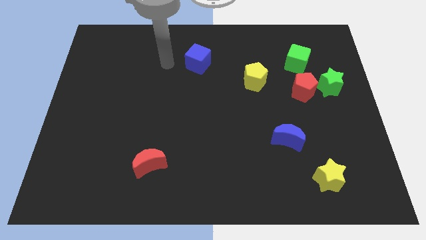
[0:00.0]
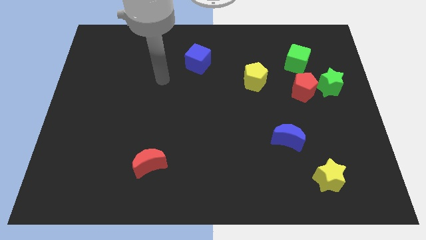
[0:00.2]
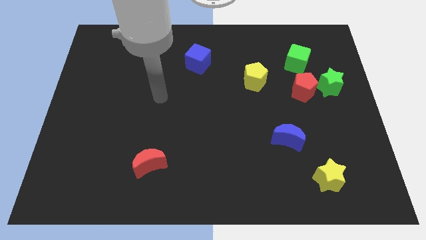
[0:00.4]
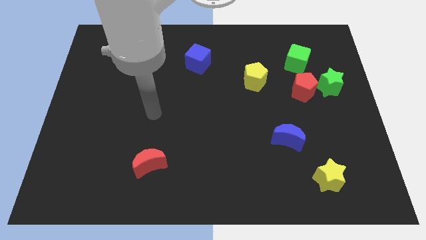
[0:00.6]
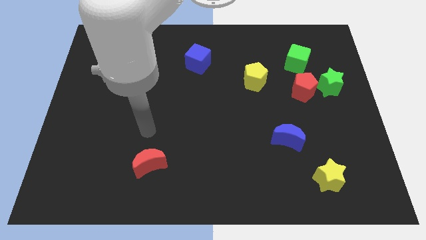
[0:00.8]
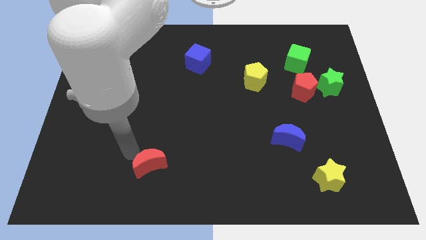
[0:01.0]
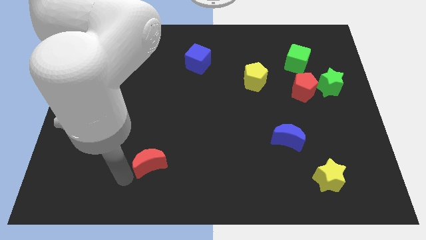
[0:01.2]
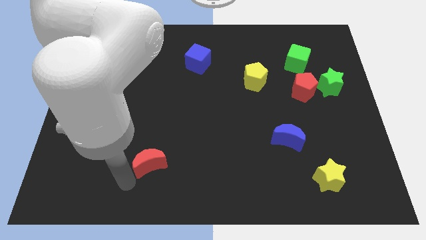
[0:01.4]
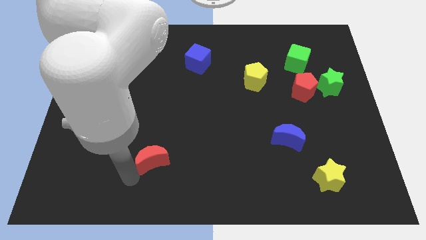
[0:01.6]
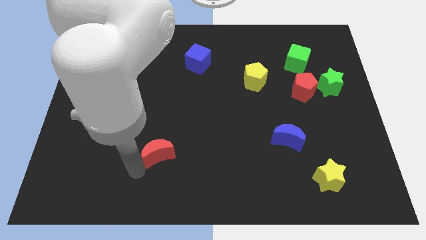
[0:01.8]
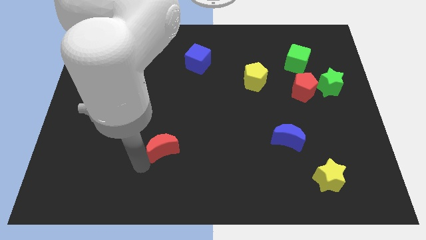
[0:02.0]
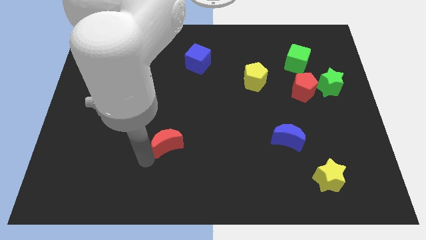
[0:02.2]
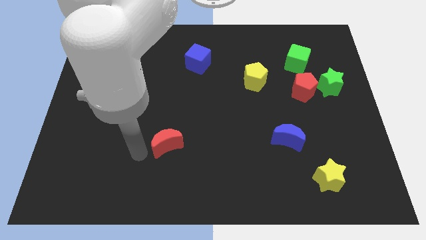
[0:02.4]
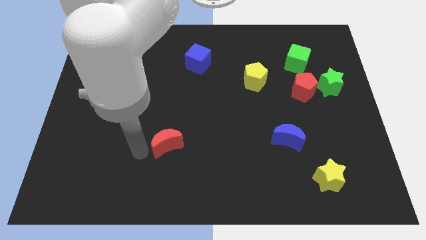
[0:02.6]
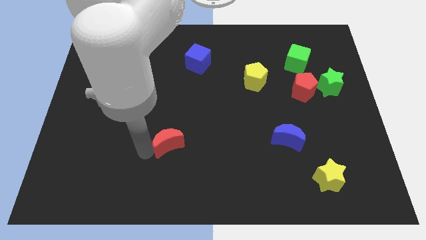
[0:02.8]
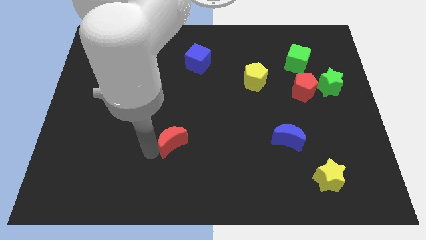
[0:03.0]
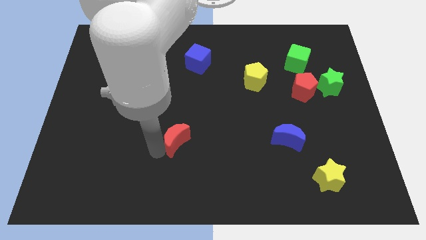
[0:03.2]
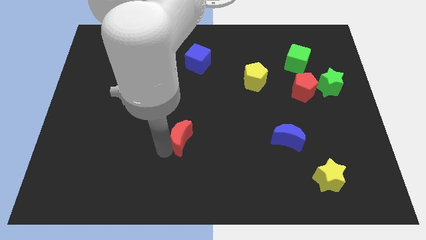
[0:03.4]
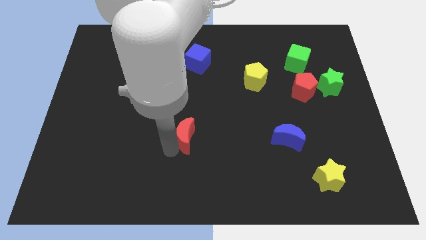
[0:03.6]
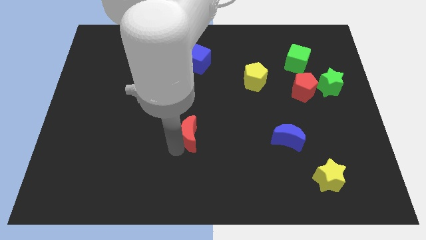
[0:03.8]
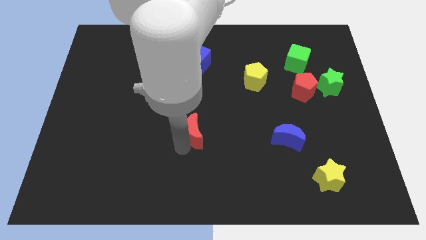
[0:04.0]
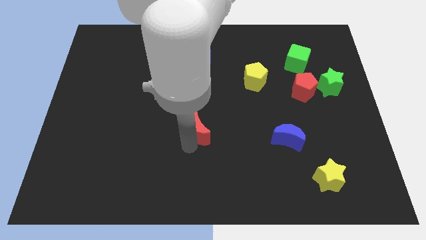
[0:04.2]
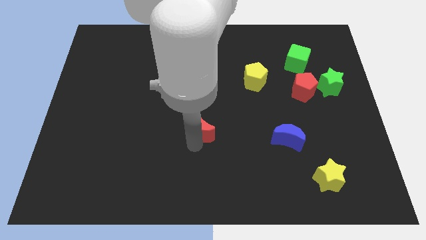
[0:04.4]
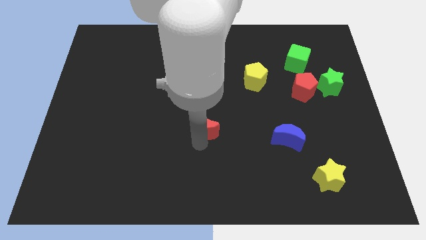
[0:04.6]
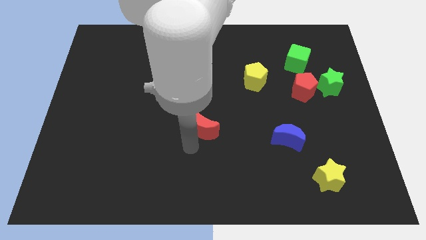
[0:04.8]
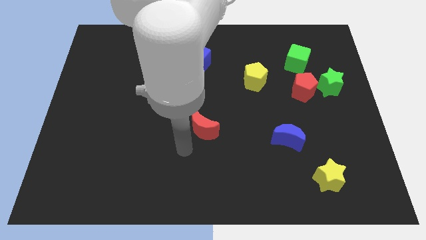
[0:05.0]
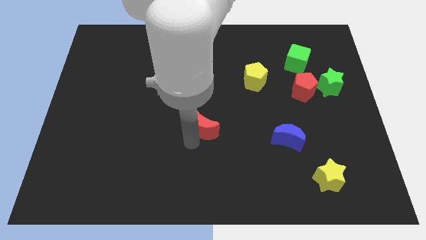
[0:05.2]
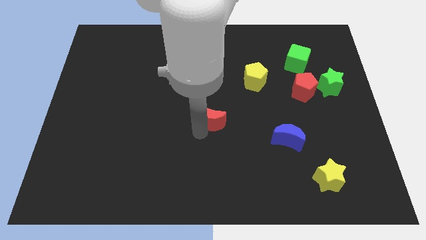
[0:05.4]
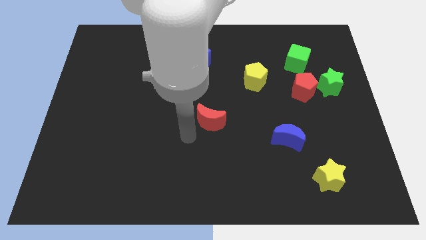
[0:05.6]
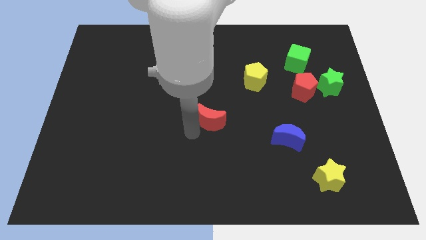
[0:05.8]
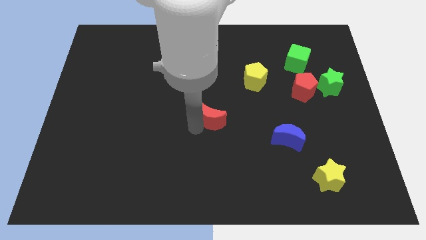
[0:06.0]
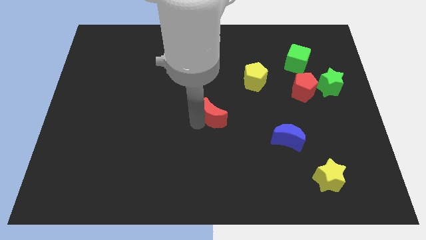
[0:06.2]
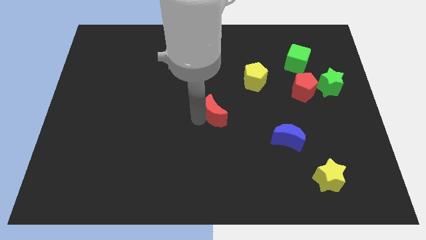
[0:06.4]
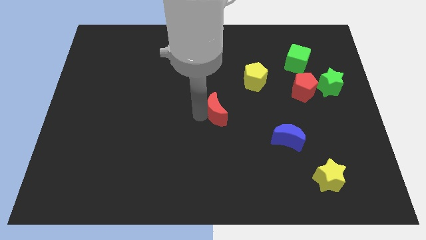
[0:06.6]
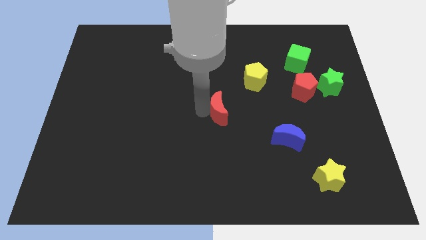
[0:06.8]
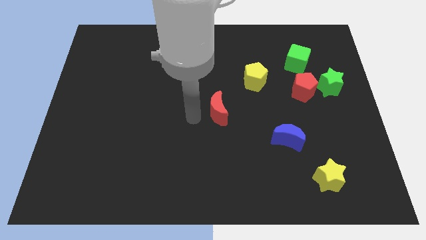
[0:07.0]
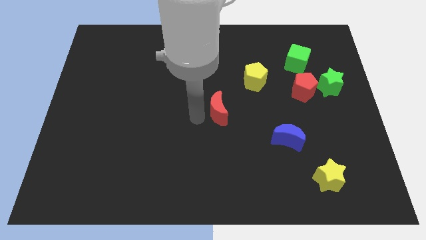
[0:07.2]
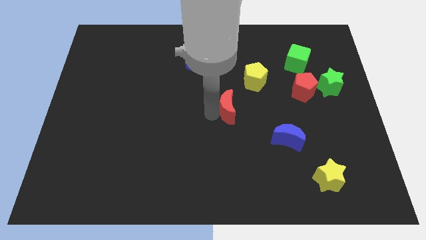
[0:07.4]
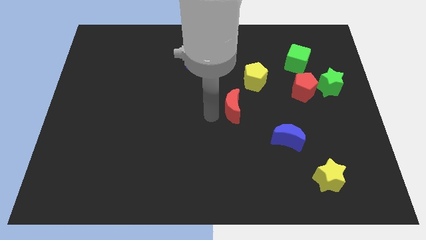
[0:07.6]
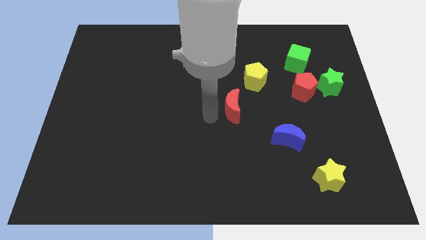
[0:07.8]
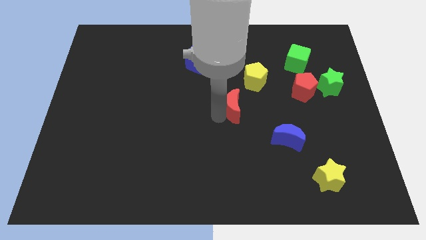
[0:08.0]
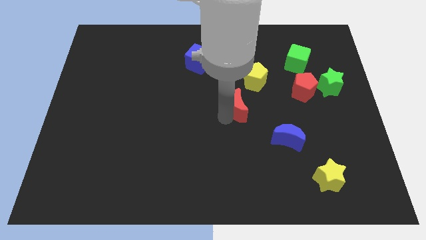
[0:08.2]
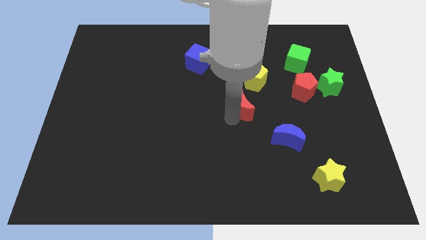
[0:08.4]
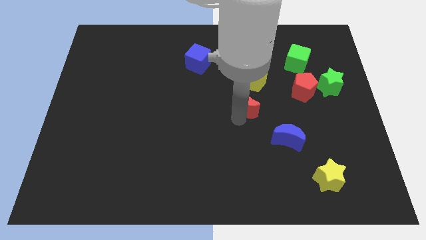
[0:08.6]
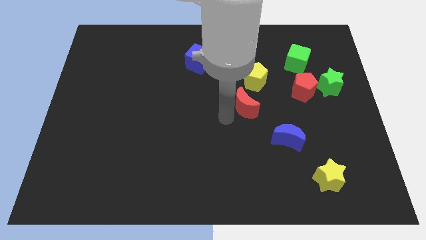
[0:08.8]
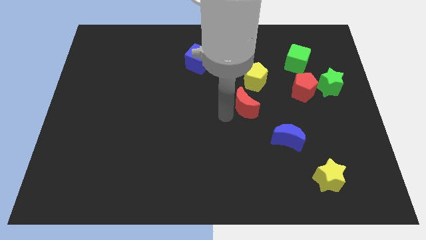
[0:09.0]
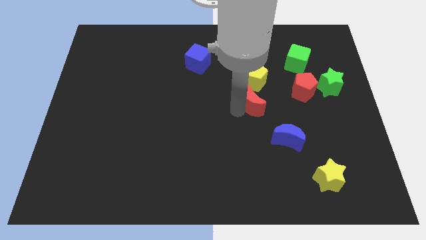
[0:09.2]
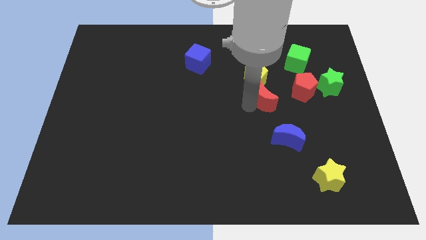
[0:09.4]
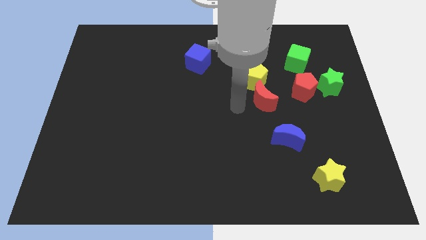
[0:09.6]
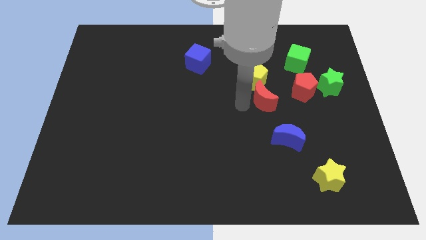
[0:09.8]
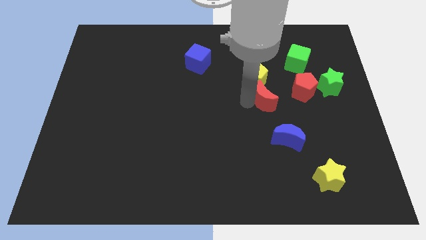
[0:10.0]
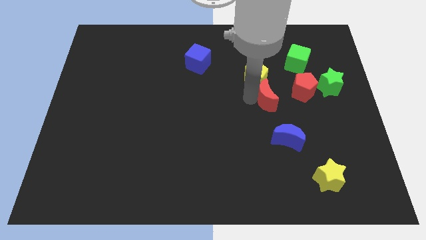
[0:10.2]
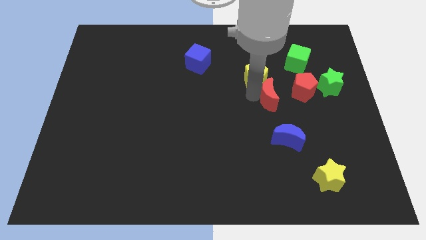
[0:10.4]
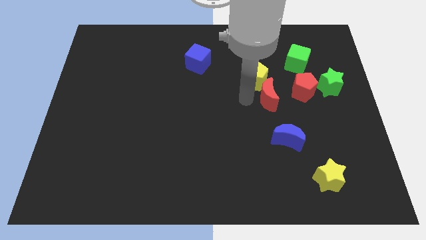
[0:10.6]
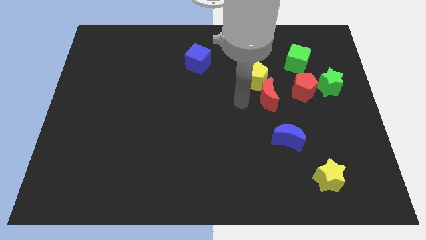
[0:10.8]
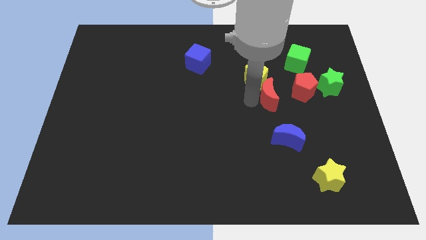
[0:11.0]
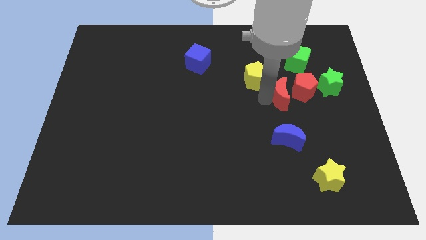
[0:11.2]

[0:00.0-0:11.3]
put the red moon next to the red pentagon

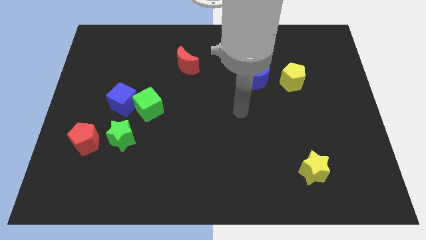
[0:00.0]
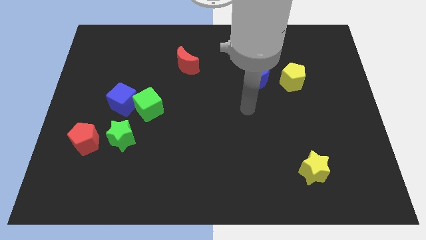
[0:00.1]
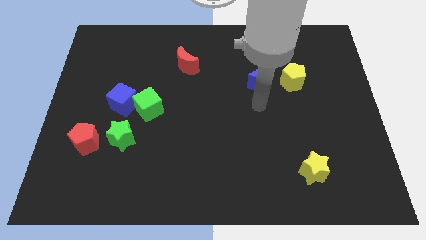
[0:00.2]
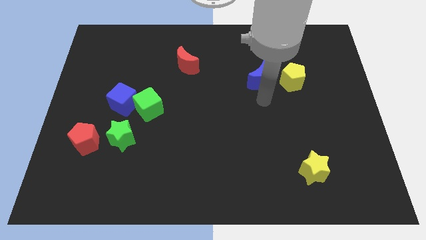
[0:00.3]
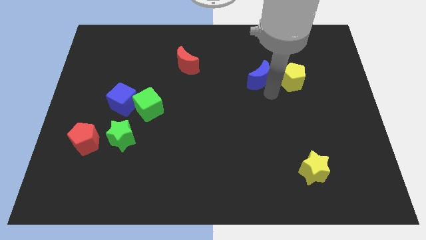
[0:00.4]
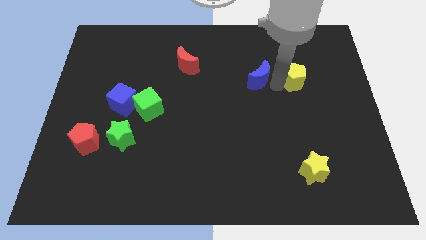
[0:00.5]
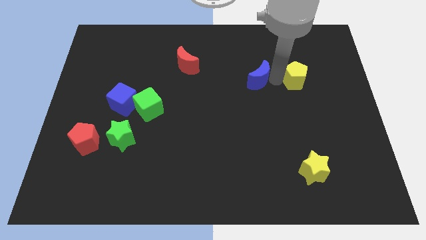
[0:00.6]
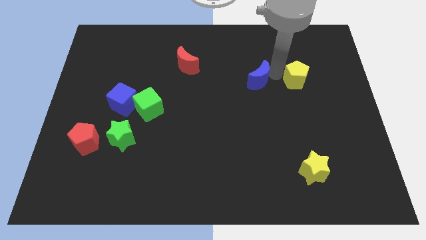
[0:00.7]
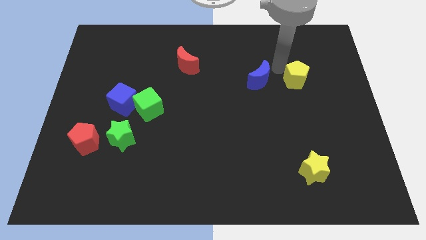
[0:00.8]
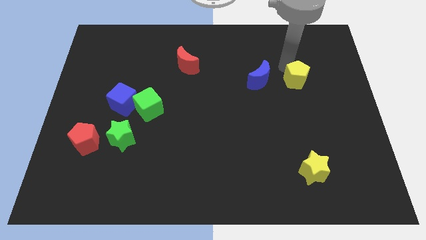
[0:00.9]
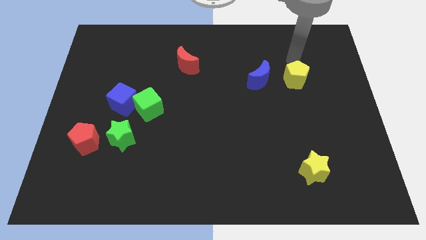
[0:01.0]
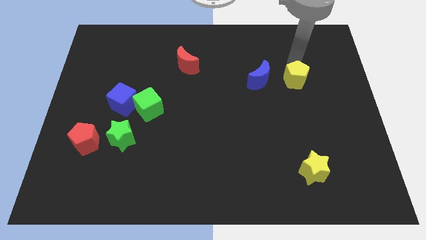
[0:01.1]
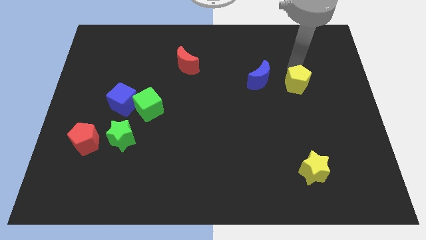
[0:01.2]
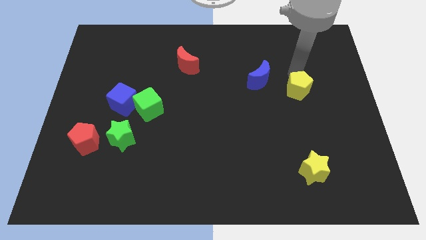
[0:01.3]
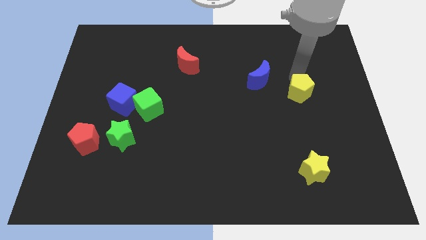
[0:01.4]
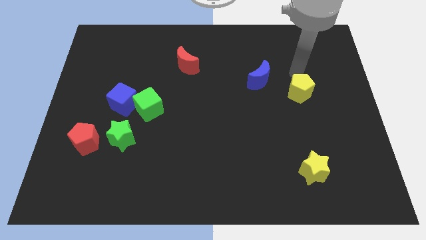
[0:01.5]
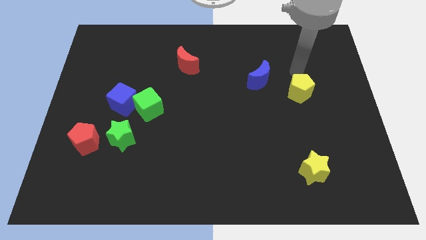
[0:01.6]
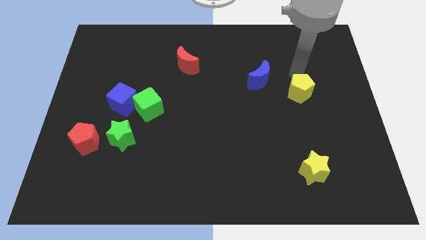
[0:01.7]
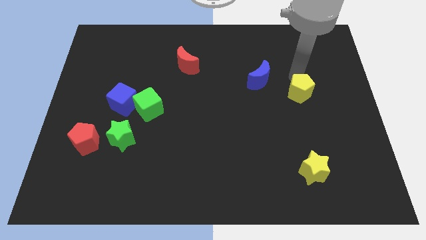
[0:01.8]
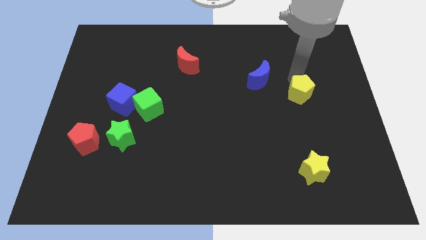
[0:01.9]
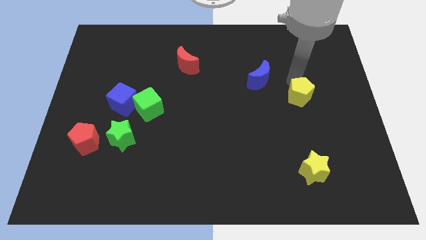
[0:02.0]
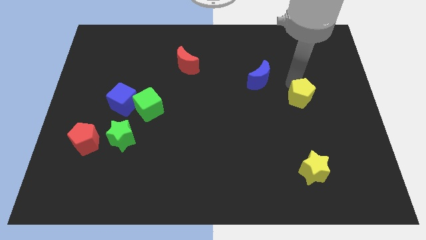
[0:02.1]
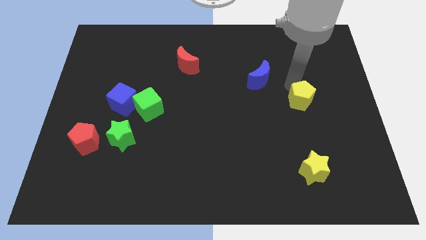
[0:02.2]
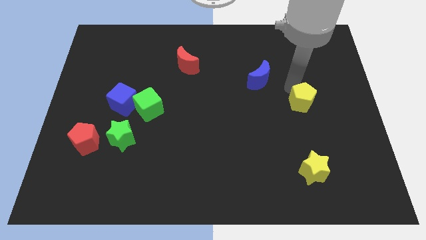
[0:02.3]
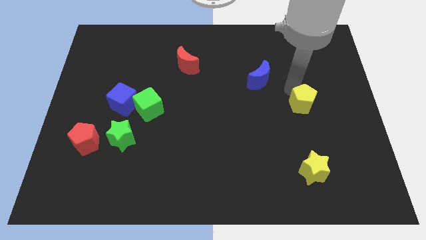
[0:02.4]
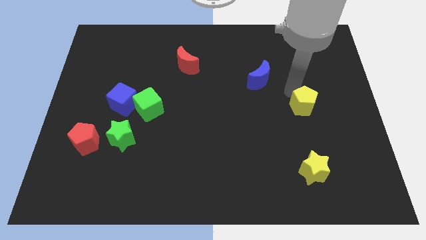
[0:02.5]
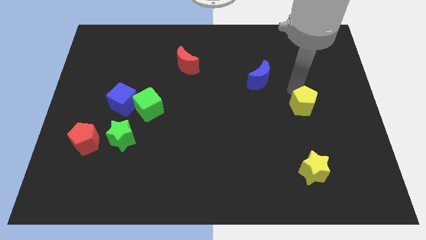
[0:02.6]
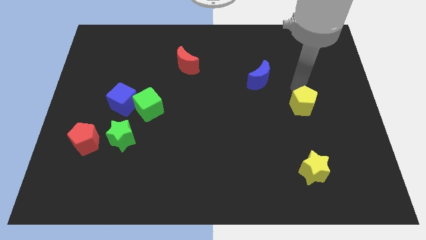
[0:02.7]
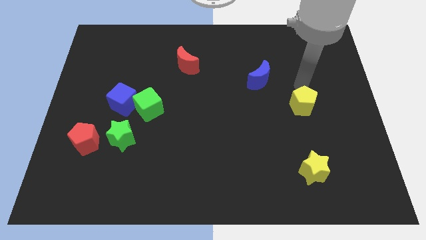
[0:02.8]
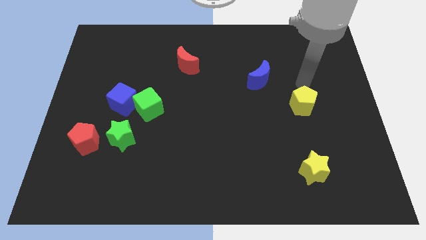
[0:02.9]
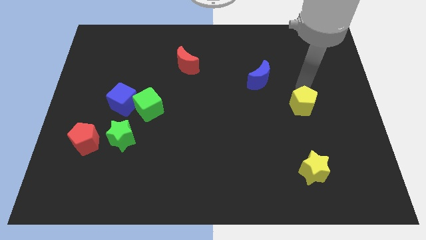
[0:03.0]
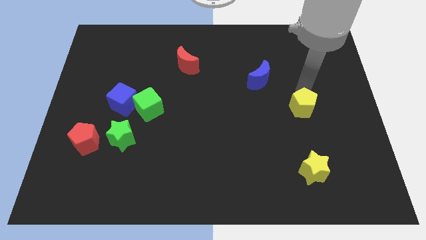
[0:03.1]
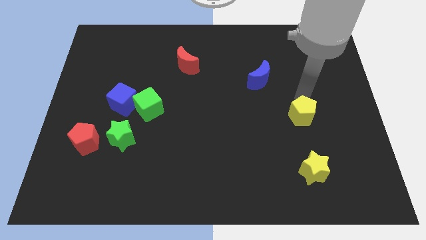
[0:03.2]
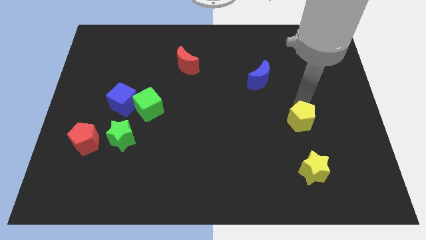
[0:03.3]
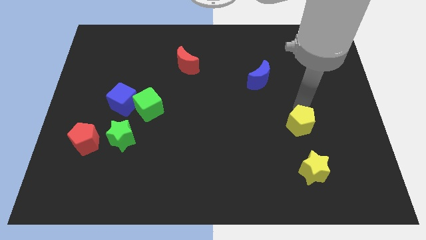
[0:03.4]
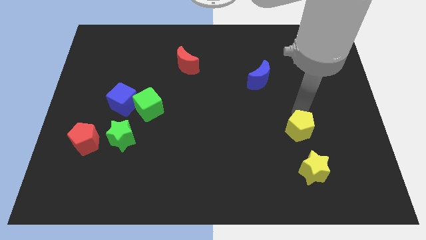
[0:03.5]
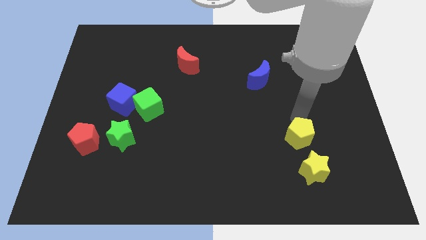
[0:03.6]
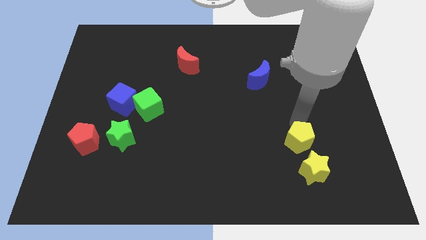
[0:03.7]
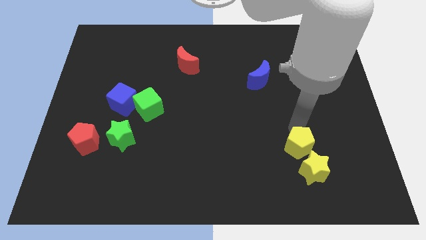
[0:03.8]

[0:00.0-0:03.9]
move the yellow pentagon to the yellow star
